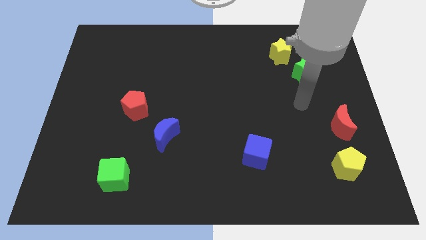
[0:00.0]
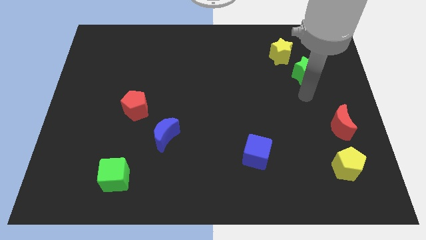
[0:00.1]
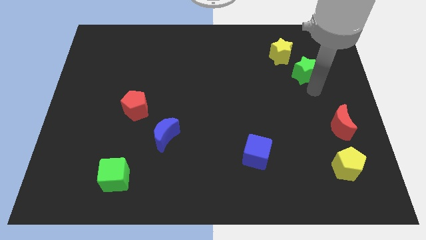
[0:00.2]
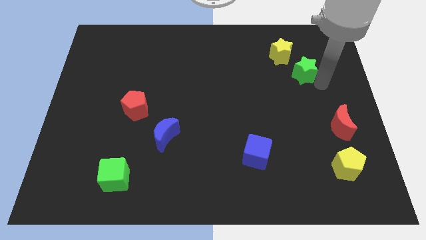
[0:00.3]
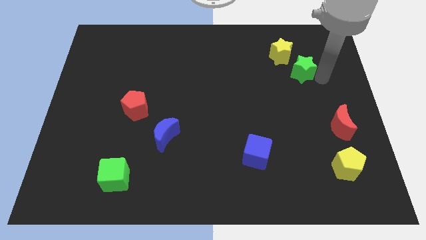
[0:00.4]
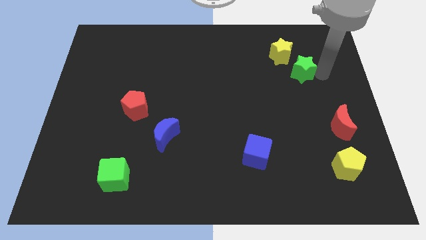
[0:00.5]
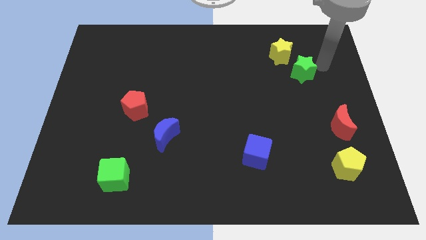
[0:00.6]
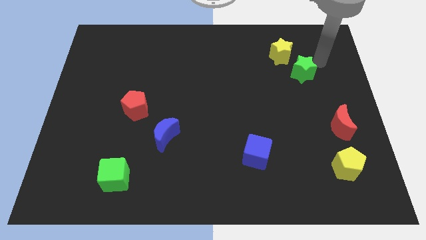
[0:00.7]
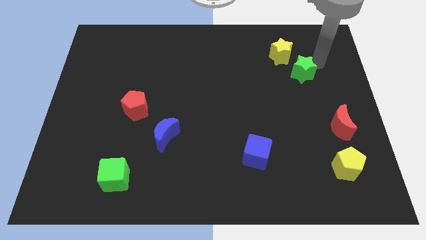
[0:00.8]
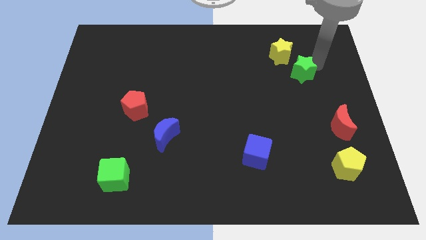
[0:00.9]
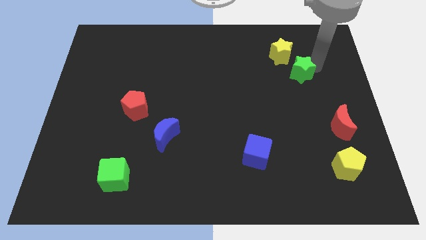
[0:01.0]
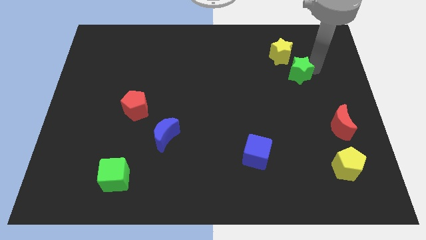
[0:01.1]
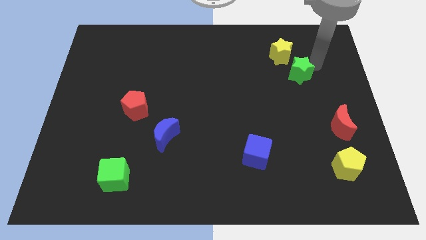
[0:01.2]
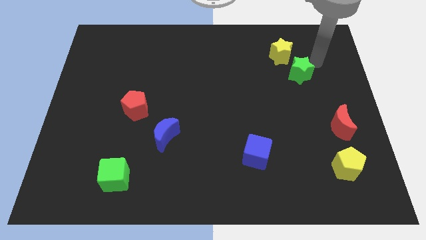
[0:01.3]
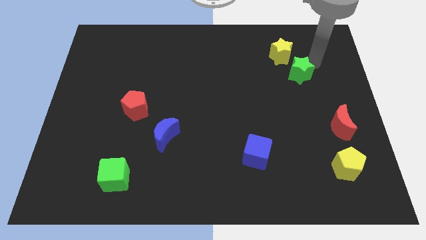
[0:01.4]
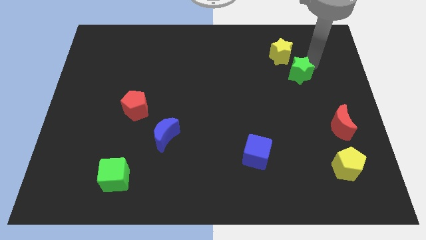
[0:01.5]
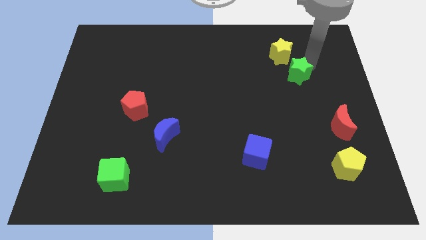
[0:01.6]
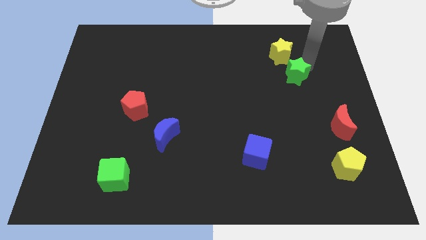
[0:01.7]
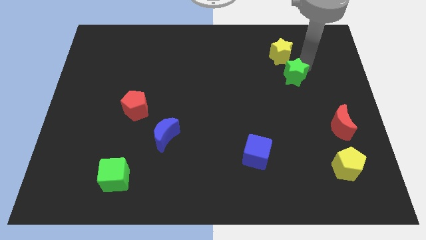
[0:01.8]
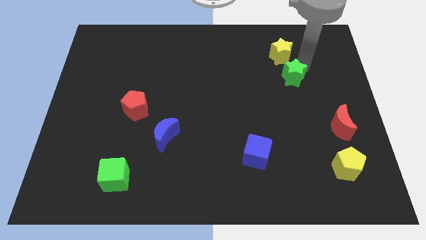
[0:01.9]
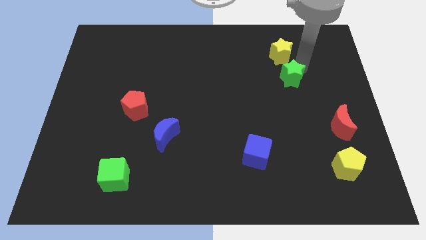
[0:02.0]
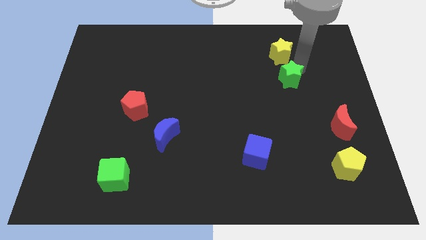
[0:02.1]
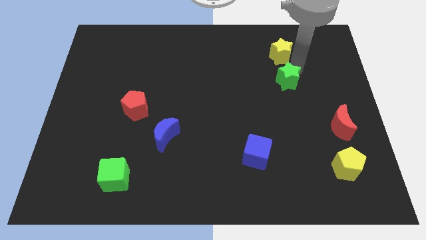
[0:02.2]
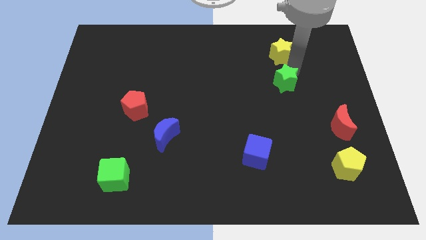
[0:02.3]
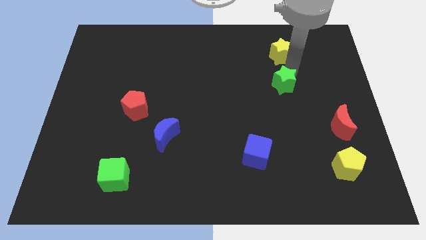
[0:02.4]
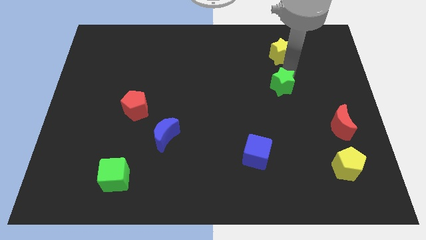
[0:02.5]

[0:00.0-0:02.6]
slide the green star a little bit down and then to the left

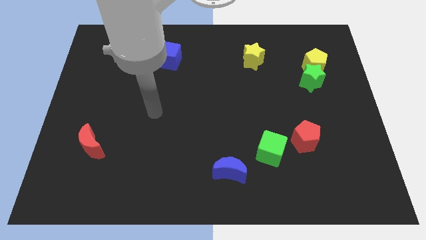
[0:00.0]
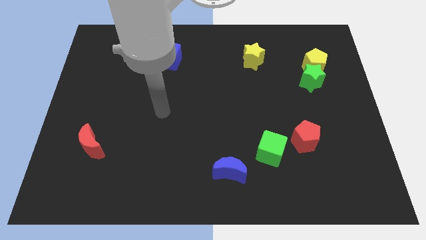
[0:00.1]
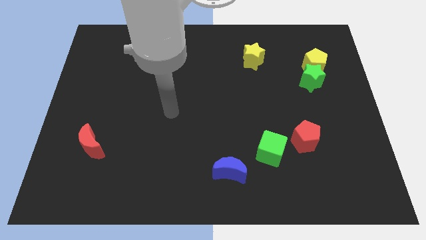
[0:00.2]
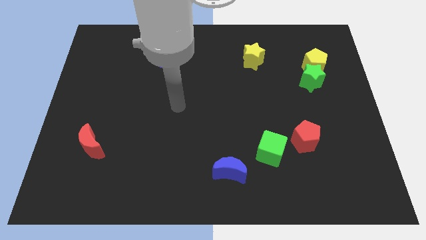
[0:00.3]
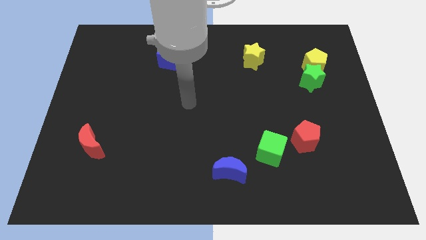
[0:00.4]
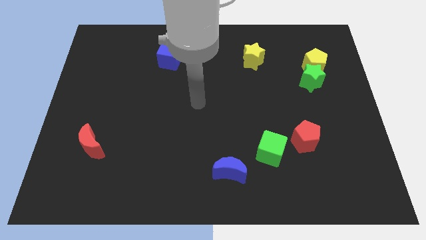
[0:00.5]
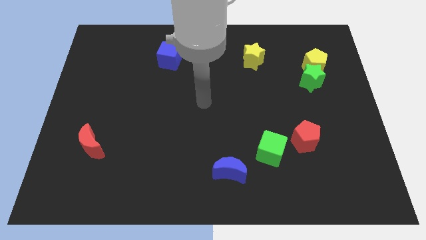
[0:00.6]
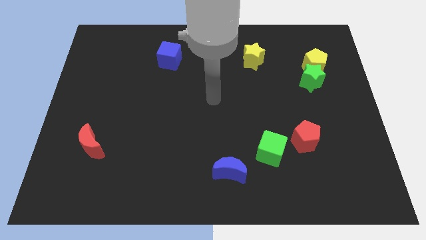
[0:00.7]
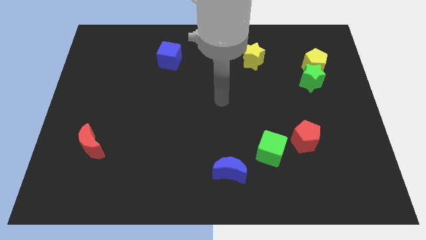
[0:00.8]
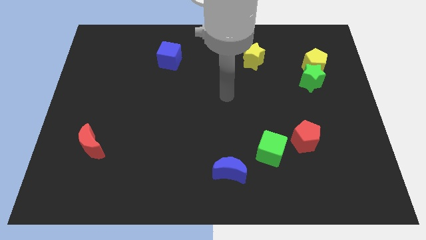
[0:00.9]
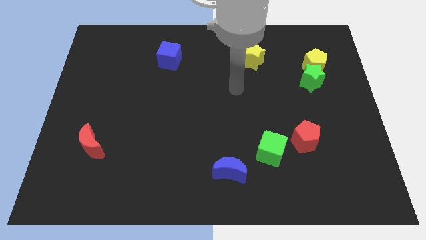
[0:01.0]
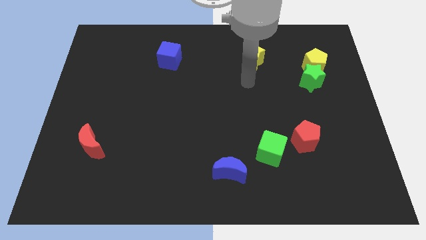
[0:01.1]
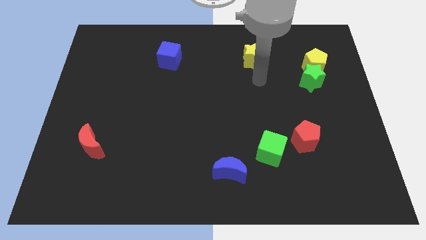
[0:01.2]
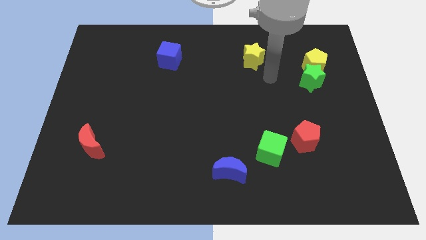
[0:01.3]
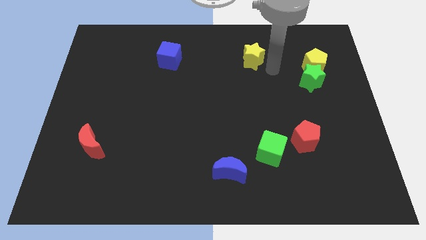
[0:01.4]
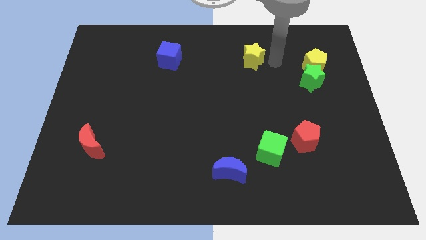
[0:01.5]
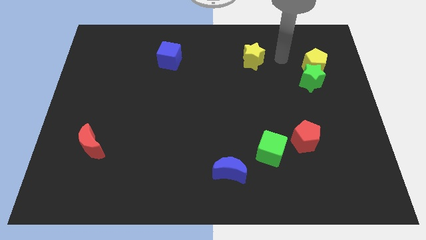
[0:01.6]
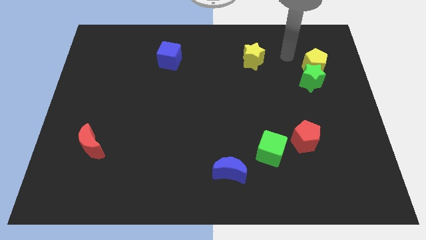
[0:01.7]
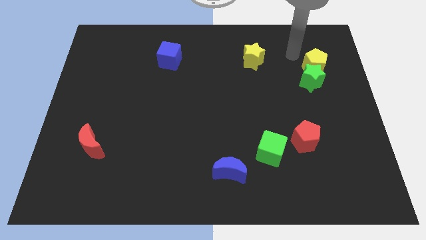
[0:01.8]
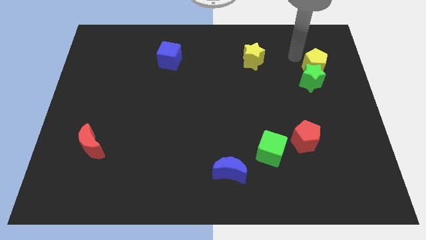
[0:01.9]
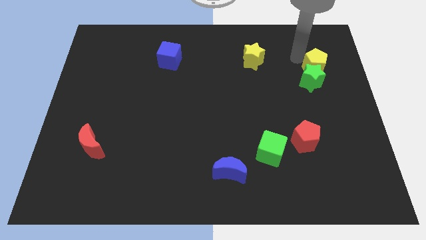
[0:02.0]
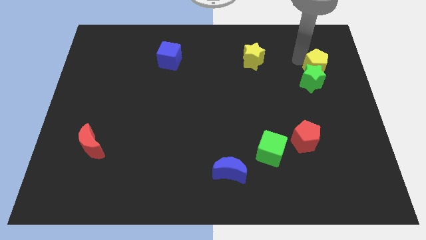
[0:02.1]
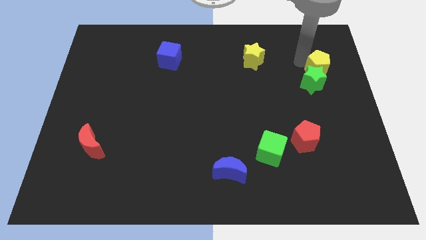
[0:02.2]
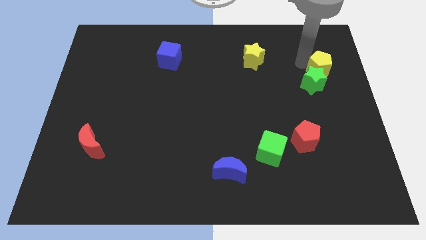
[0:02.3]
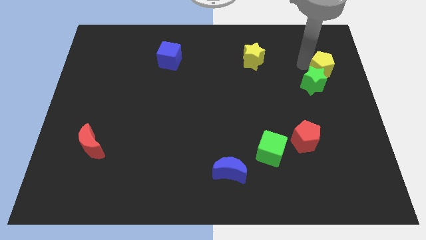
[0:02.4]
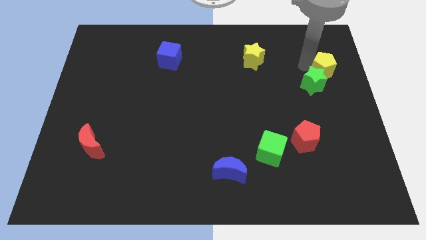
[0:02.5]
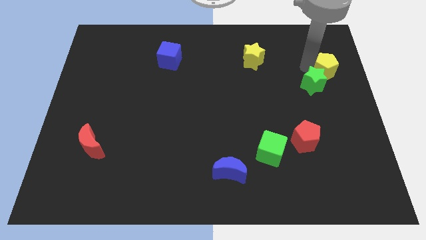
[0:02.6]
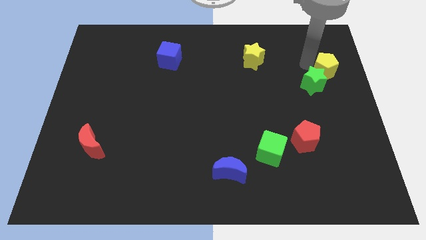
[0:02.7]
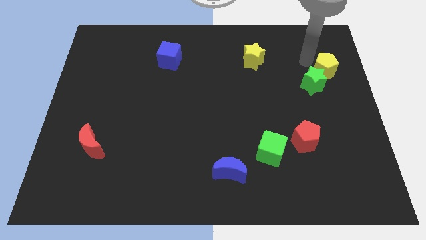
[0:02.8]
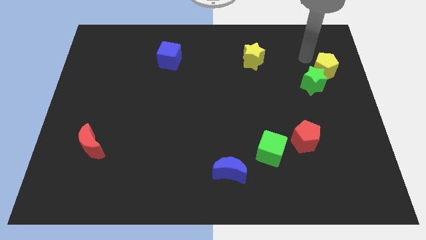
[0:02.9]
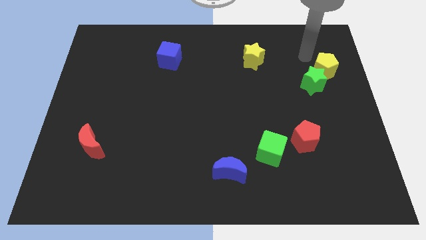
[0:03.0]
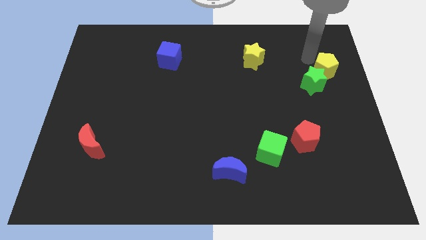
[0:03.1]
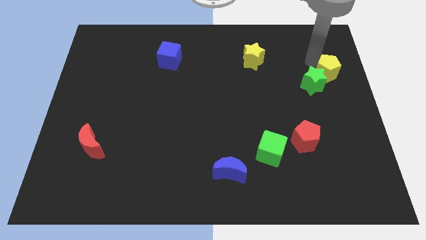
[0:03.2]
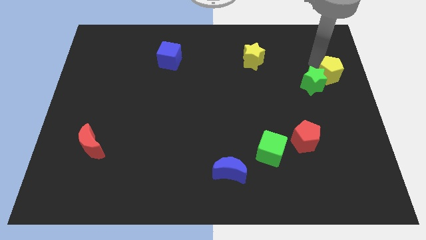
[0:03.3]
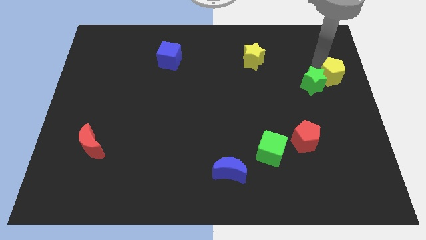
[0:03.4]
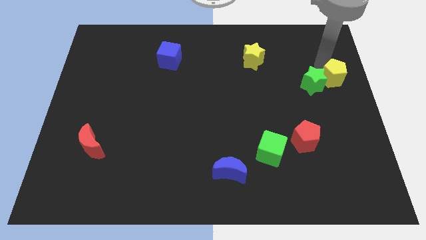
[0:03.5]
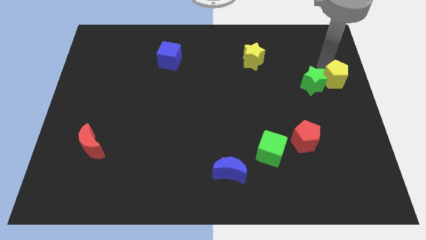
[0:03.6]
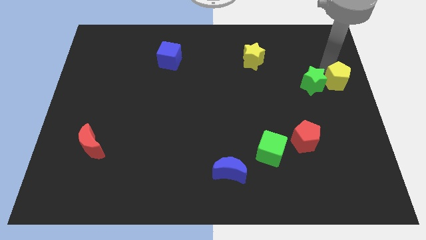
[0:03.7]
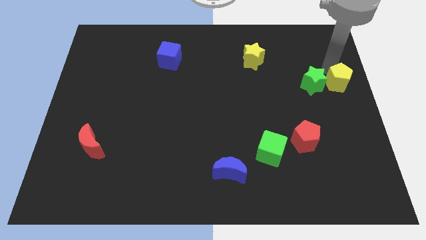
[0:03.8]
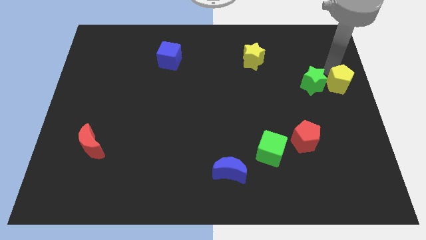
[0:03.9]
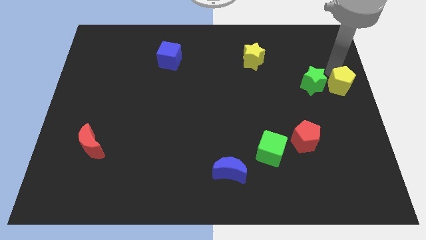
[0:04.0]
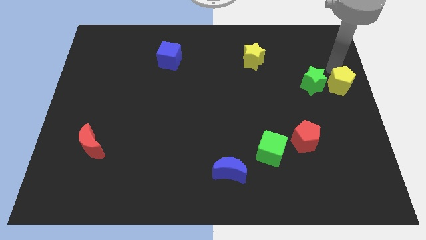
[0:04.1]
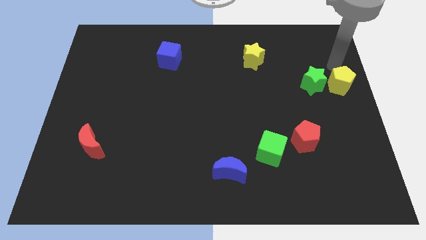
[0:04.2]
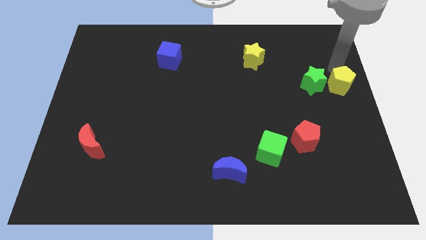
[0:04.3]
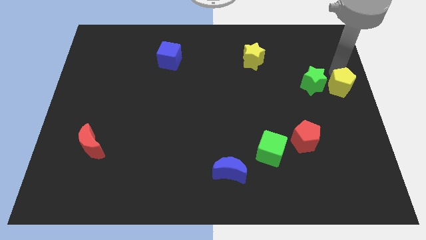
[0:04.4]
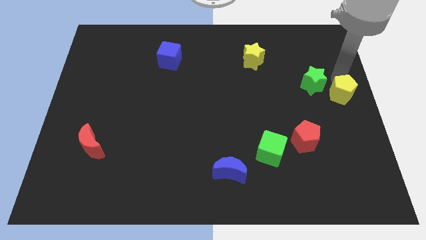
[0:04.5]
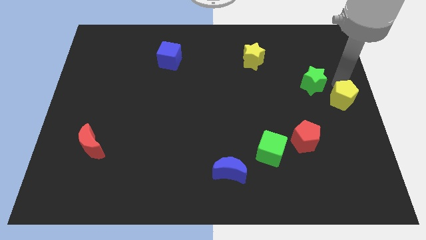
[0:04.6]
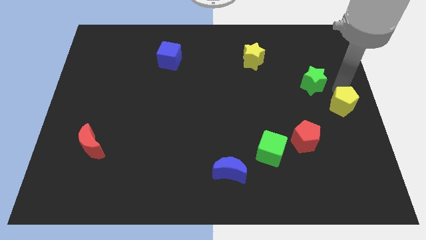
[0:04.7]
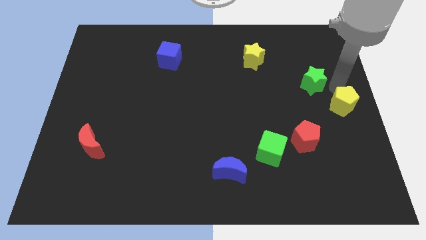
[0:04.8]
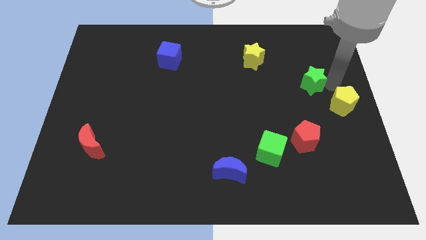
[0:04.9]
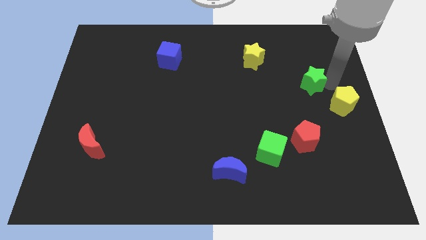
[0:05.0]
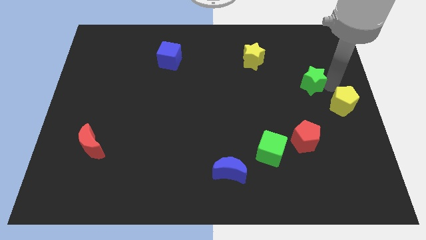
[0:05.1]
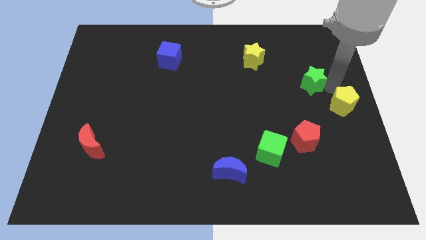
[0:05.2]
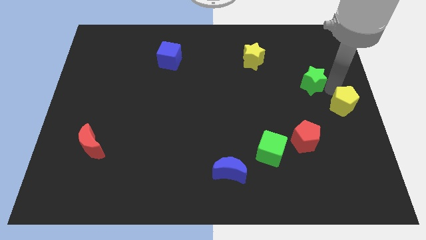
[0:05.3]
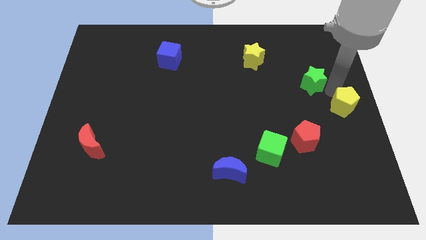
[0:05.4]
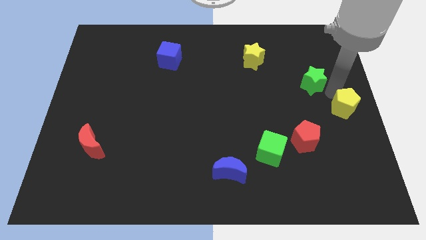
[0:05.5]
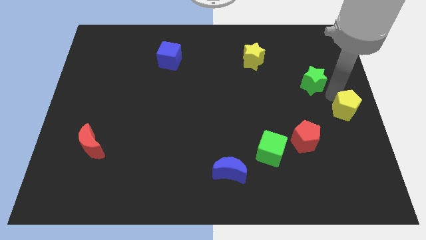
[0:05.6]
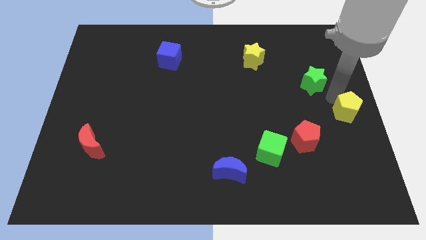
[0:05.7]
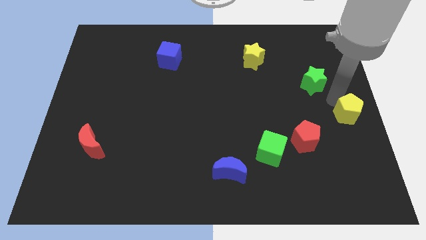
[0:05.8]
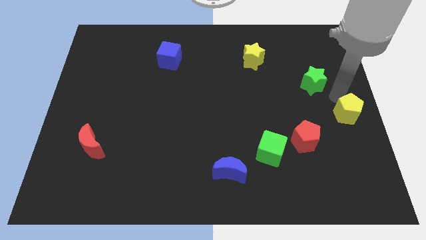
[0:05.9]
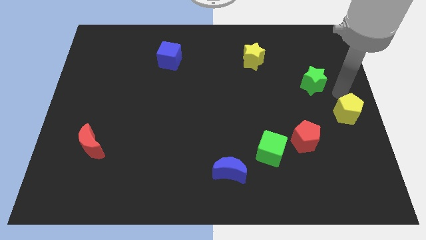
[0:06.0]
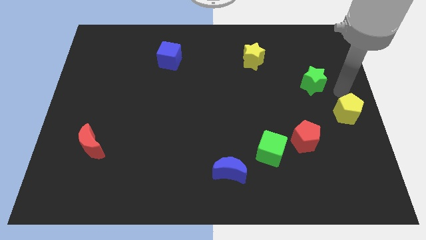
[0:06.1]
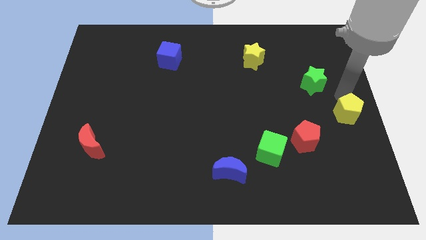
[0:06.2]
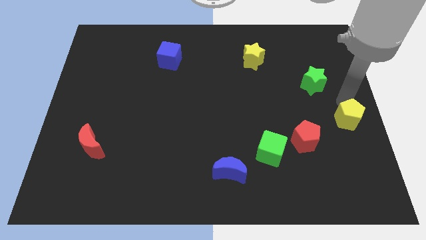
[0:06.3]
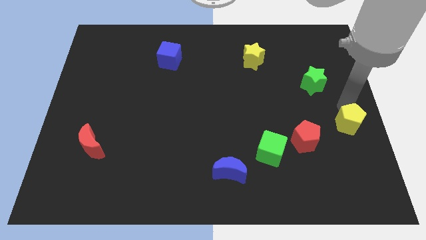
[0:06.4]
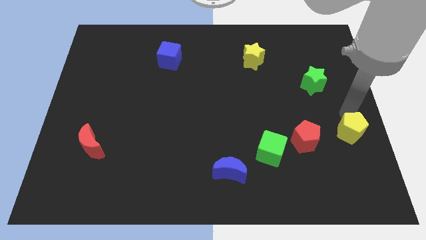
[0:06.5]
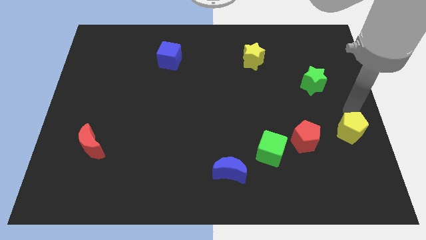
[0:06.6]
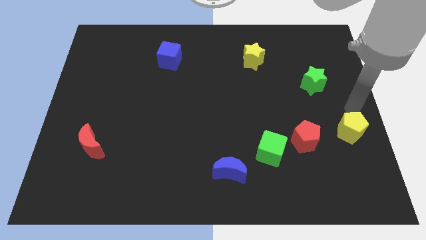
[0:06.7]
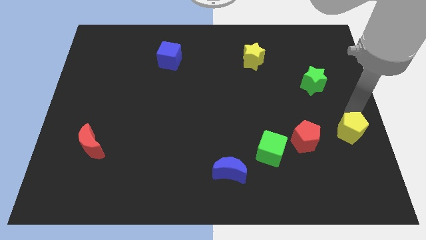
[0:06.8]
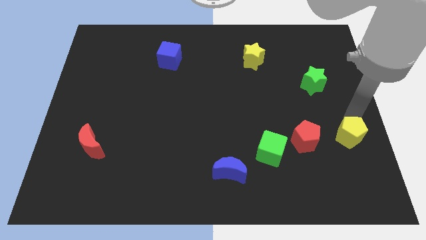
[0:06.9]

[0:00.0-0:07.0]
move the yellow pentagon down
